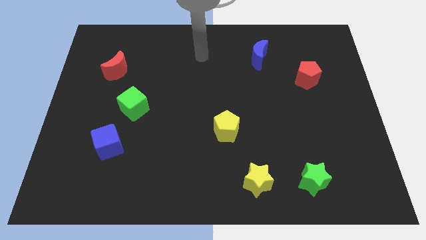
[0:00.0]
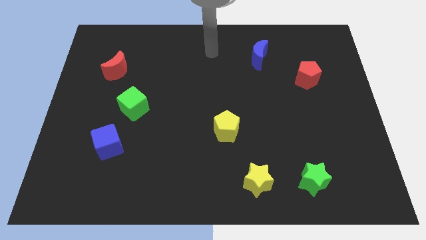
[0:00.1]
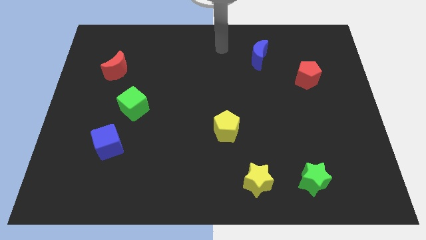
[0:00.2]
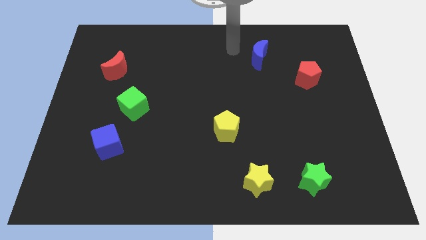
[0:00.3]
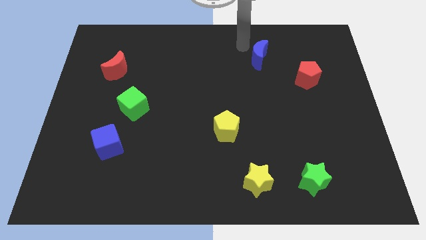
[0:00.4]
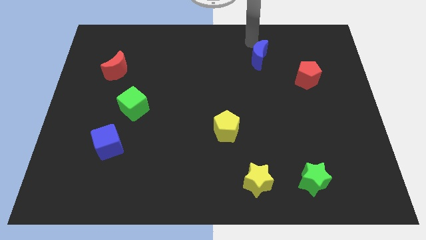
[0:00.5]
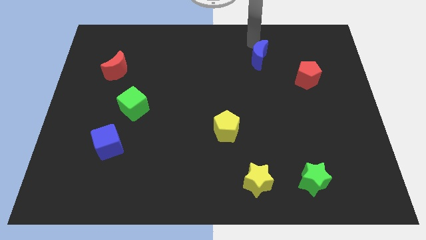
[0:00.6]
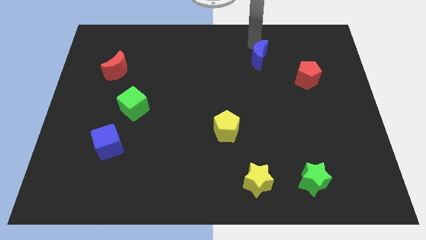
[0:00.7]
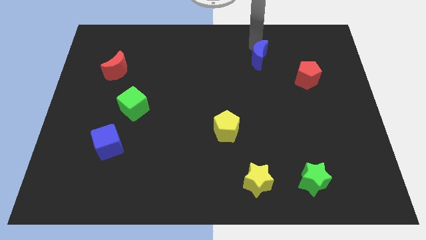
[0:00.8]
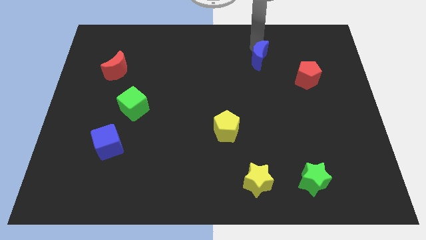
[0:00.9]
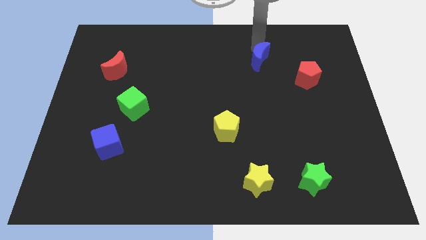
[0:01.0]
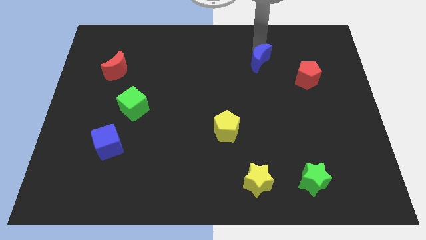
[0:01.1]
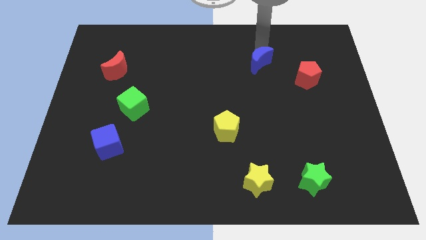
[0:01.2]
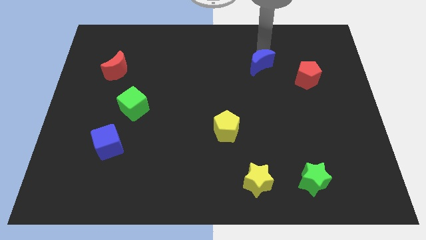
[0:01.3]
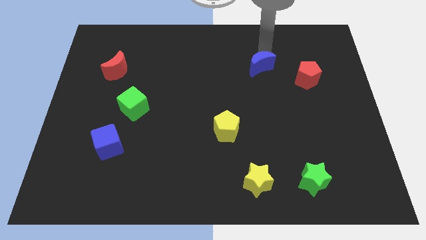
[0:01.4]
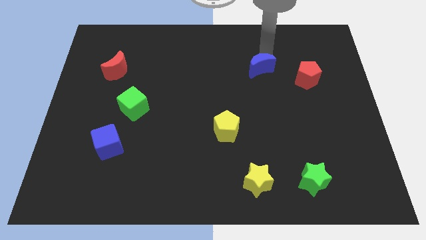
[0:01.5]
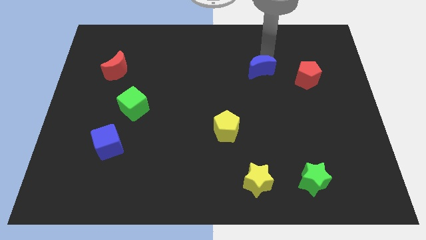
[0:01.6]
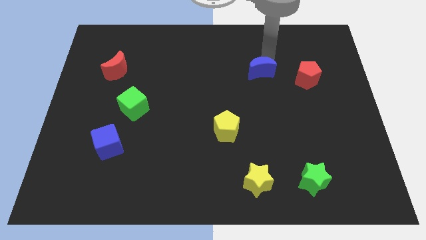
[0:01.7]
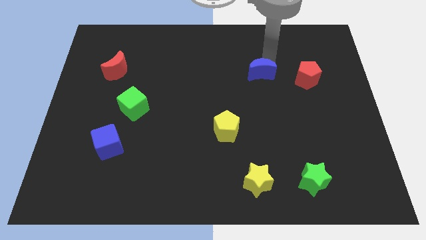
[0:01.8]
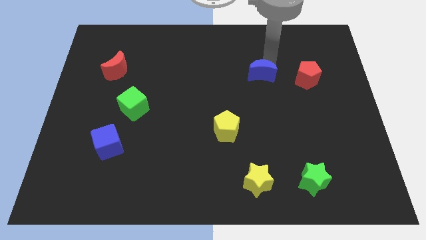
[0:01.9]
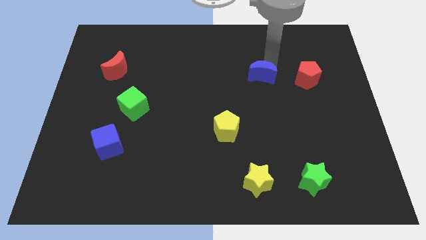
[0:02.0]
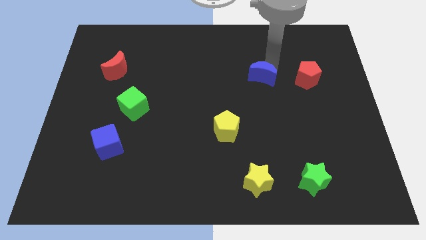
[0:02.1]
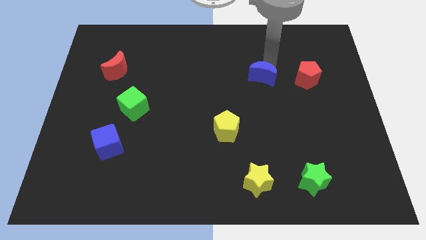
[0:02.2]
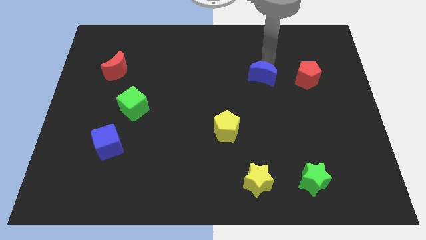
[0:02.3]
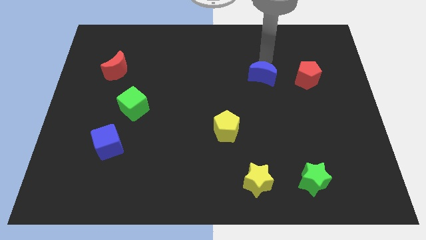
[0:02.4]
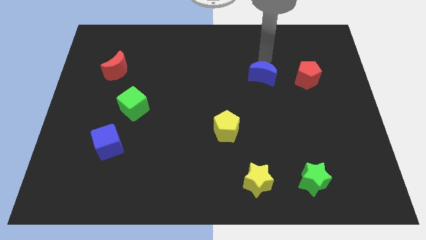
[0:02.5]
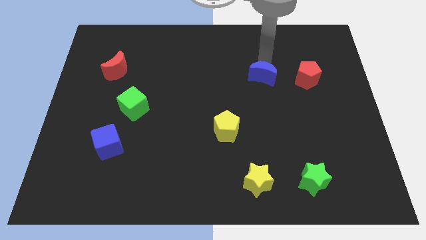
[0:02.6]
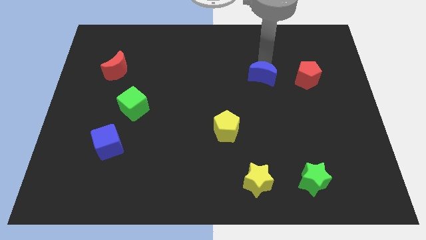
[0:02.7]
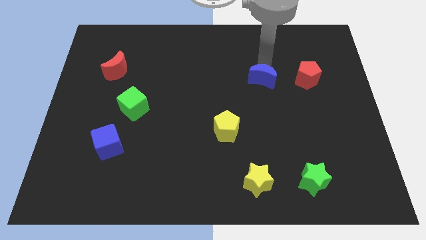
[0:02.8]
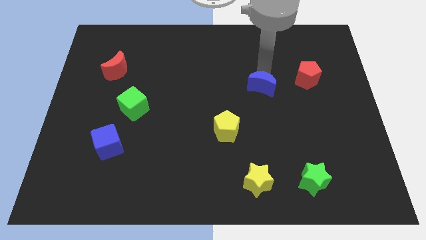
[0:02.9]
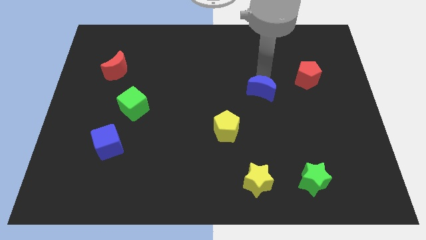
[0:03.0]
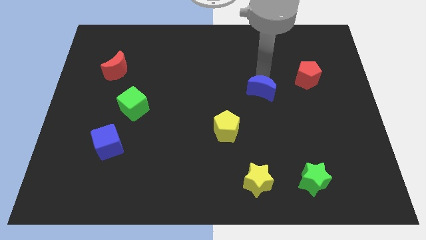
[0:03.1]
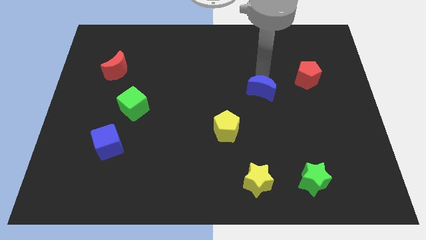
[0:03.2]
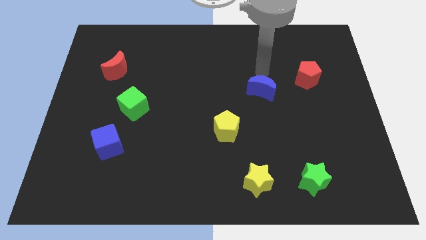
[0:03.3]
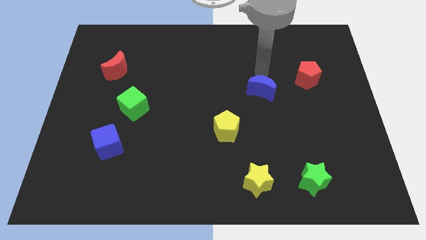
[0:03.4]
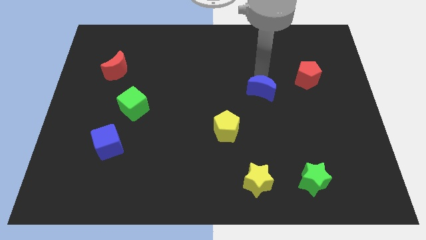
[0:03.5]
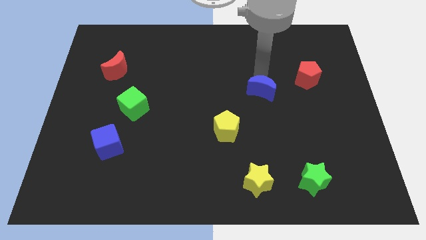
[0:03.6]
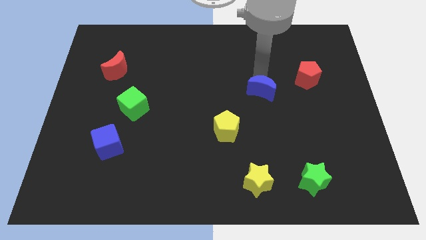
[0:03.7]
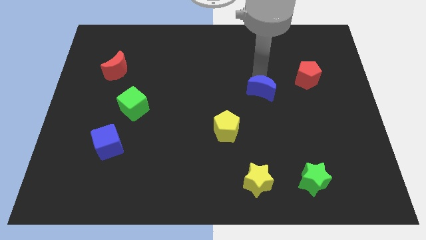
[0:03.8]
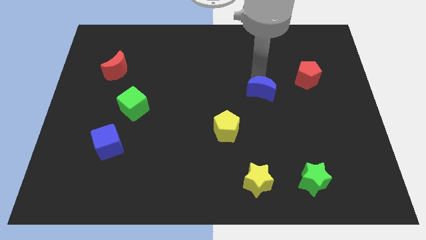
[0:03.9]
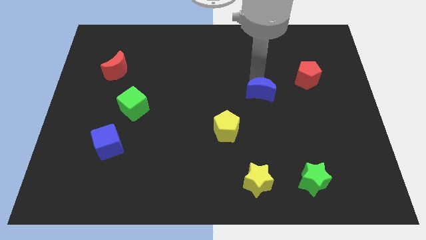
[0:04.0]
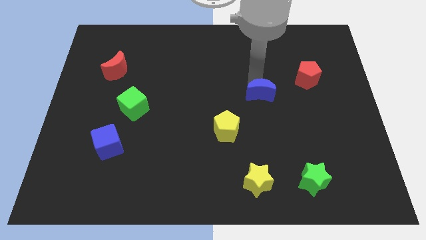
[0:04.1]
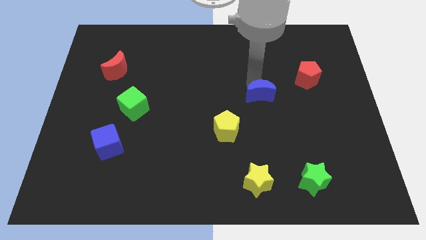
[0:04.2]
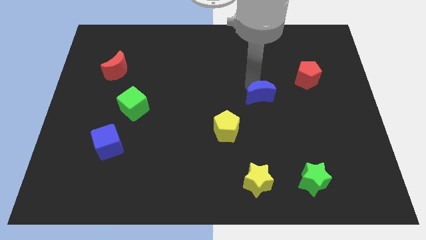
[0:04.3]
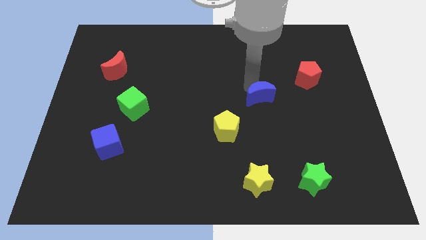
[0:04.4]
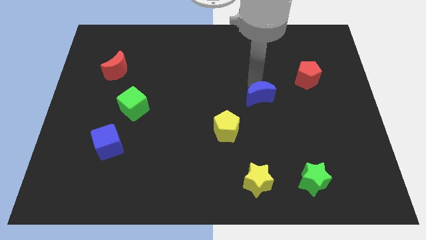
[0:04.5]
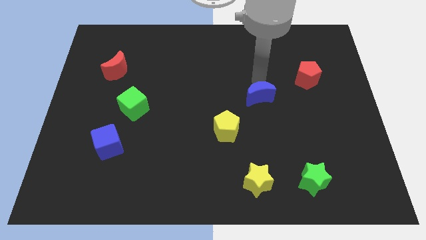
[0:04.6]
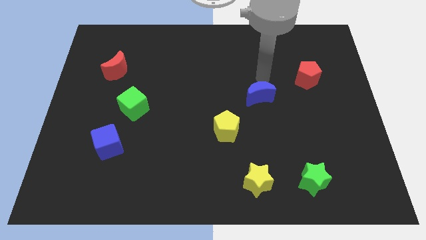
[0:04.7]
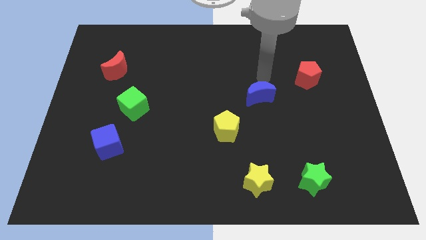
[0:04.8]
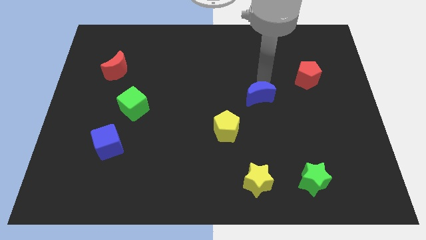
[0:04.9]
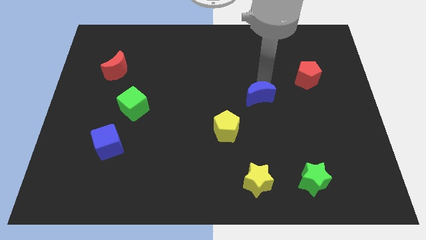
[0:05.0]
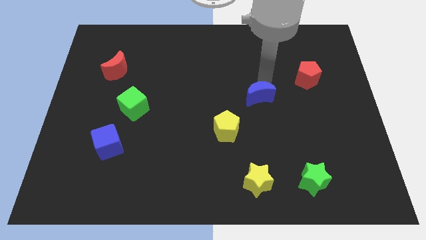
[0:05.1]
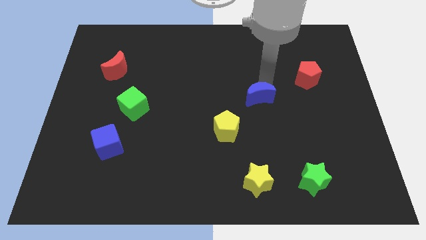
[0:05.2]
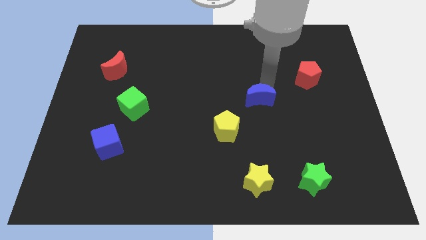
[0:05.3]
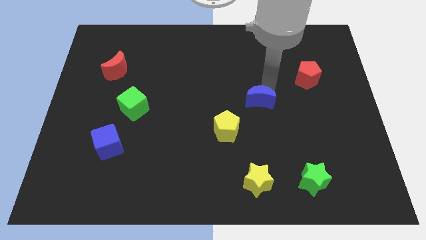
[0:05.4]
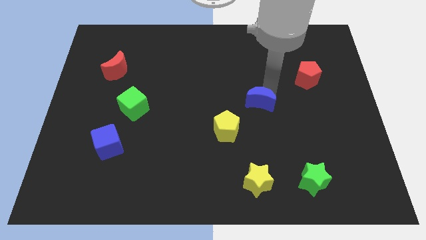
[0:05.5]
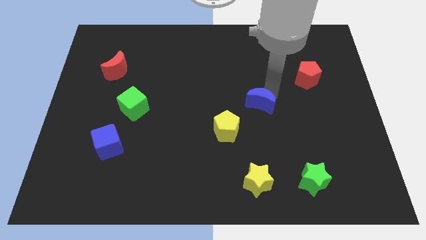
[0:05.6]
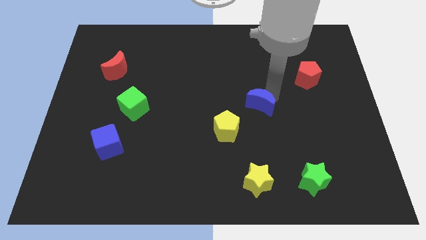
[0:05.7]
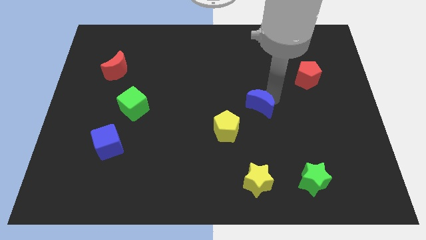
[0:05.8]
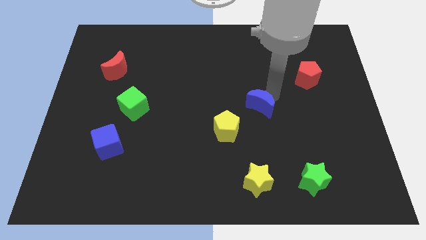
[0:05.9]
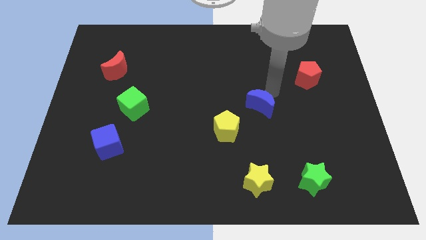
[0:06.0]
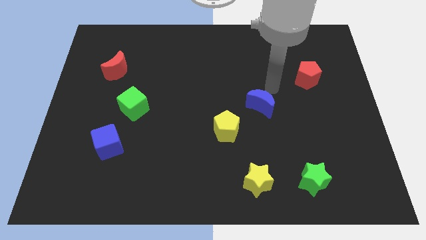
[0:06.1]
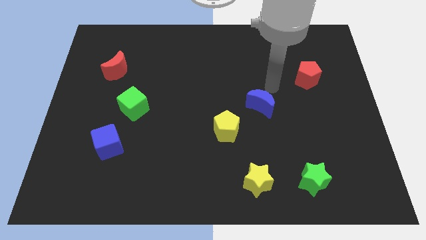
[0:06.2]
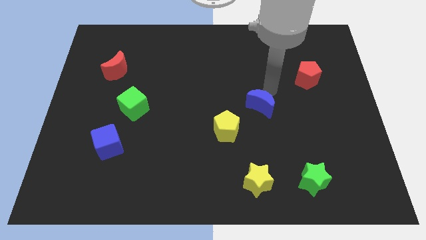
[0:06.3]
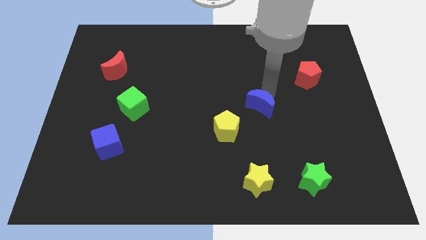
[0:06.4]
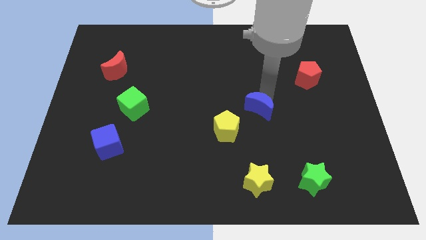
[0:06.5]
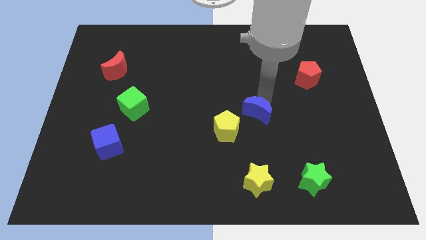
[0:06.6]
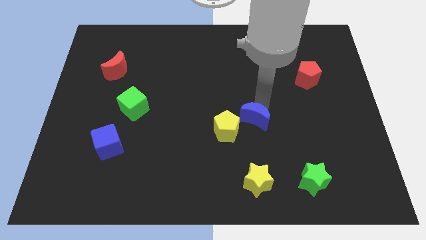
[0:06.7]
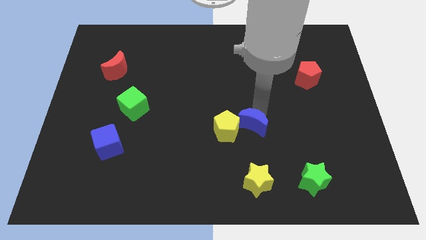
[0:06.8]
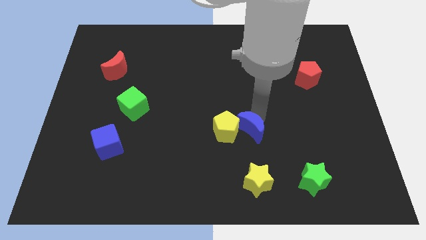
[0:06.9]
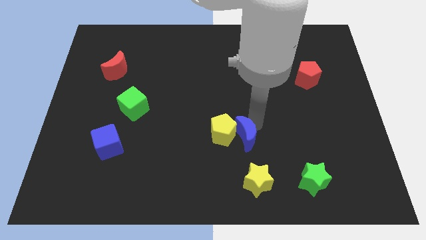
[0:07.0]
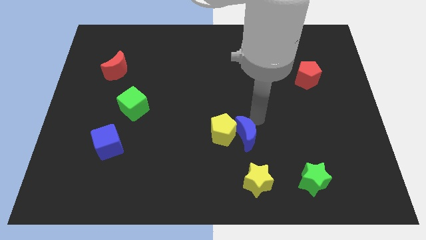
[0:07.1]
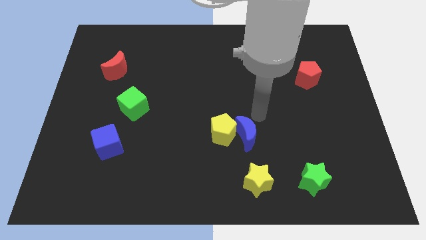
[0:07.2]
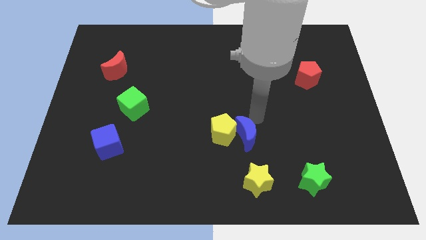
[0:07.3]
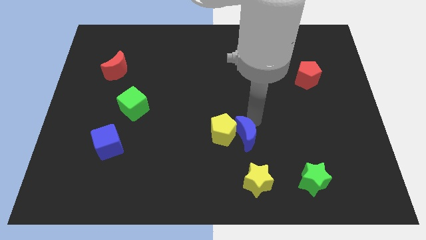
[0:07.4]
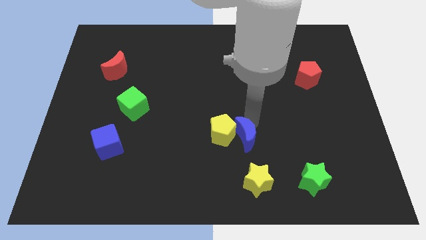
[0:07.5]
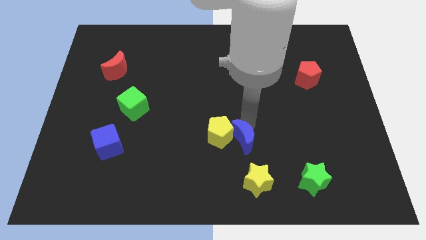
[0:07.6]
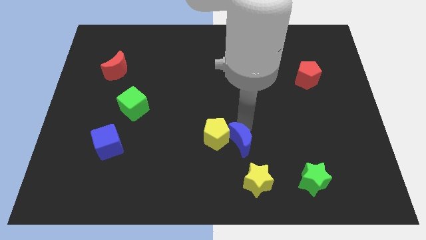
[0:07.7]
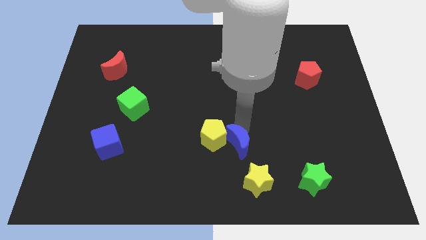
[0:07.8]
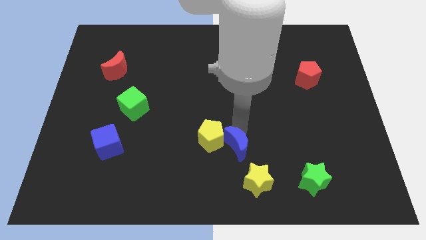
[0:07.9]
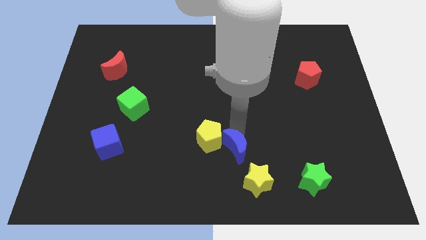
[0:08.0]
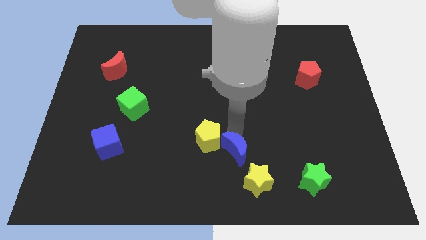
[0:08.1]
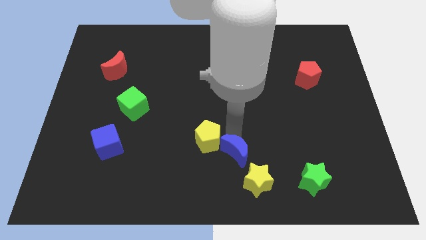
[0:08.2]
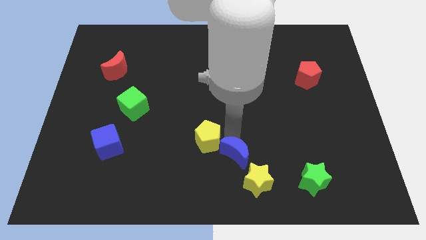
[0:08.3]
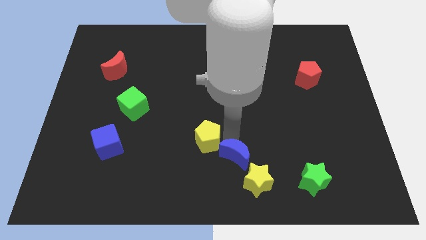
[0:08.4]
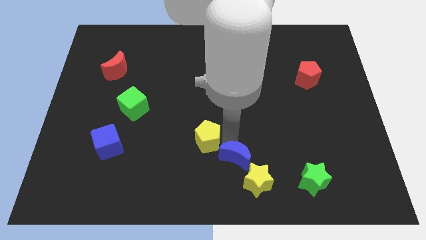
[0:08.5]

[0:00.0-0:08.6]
move the blue moon to the bottom
